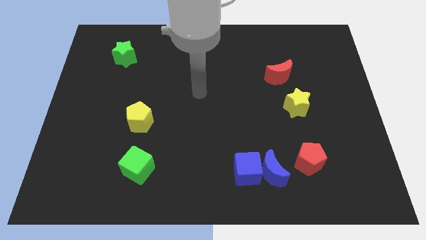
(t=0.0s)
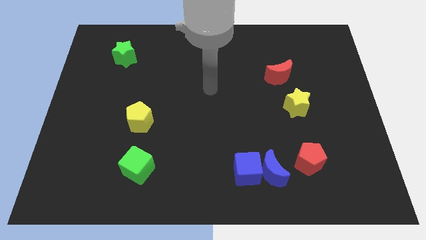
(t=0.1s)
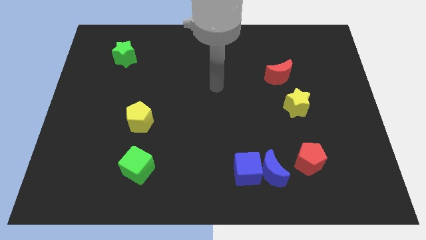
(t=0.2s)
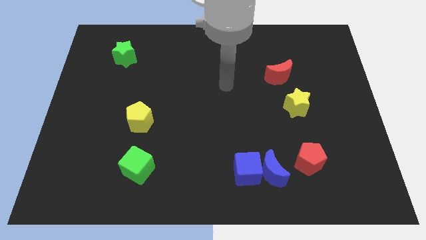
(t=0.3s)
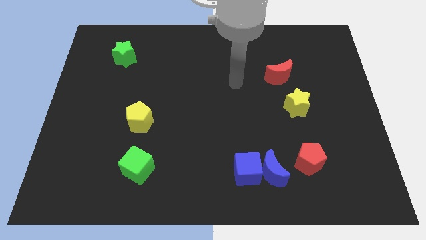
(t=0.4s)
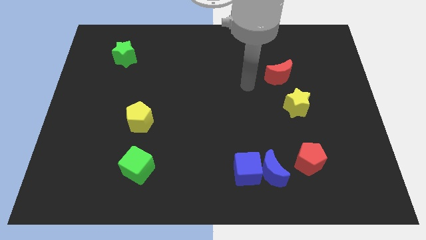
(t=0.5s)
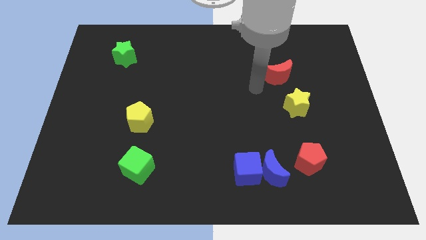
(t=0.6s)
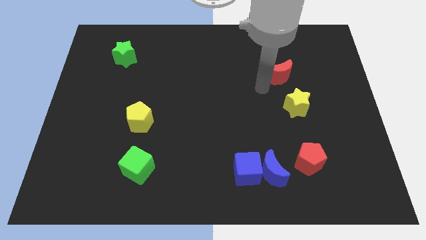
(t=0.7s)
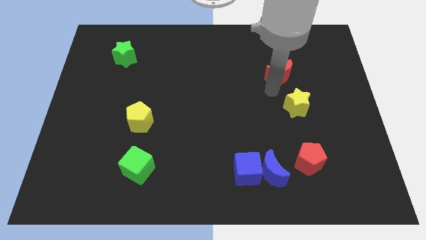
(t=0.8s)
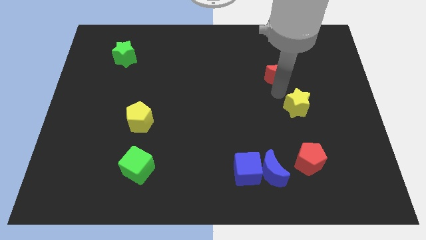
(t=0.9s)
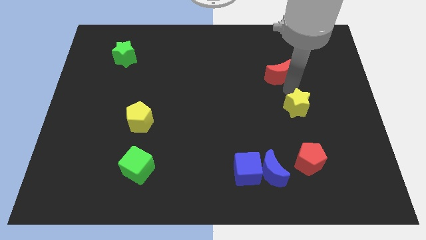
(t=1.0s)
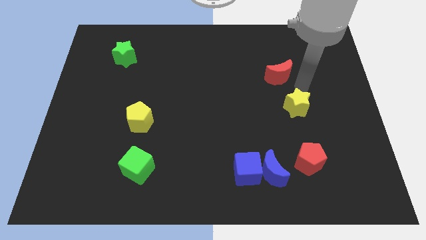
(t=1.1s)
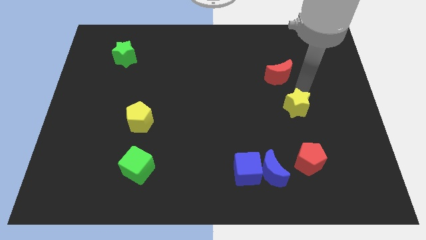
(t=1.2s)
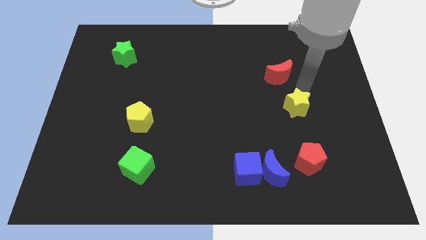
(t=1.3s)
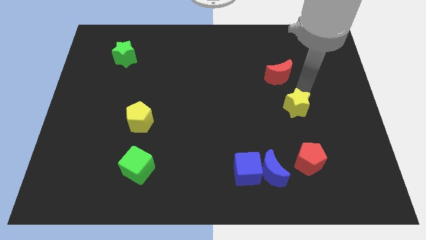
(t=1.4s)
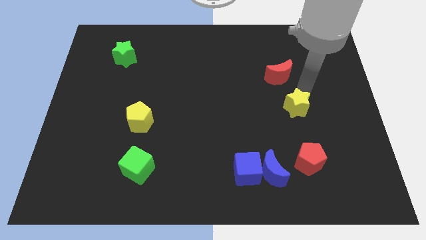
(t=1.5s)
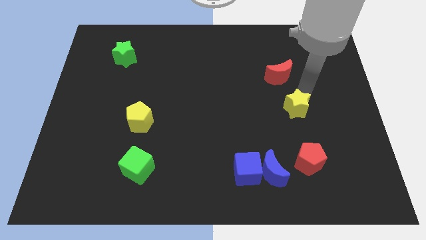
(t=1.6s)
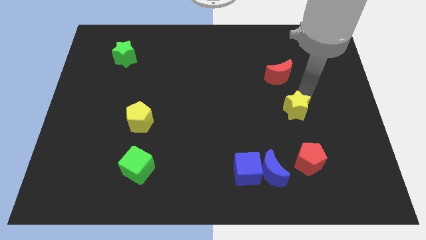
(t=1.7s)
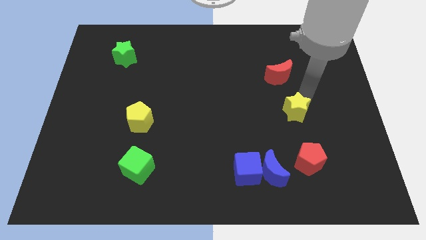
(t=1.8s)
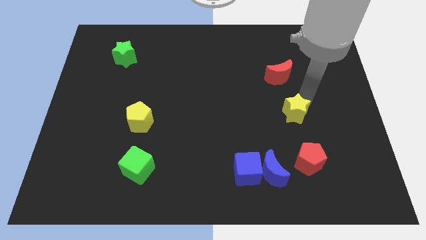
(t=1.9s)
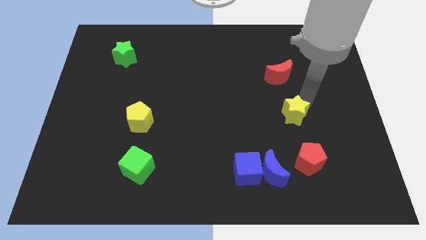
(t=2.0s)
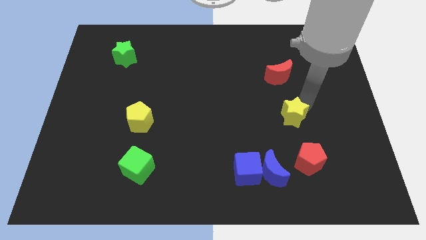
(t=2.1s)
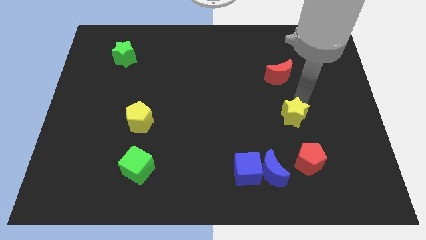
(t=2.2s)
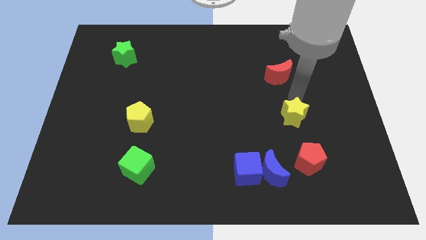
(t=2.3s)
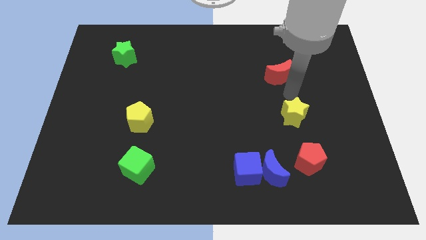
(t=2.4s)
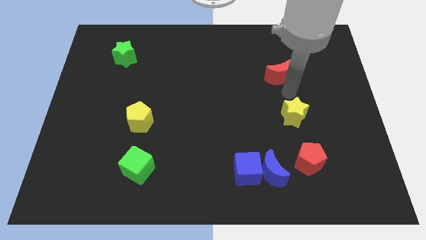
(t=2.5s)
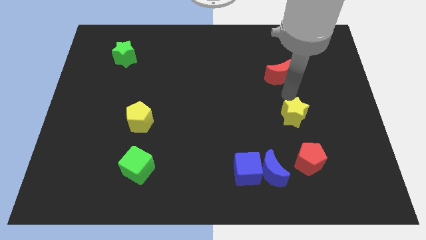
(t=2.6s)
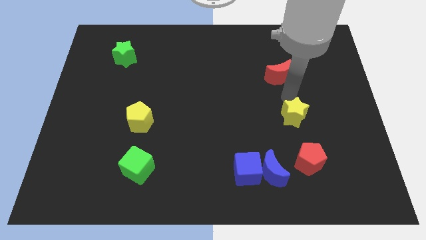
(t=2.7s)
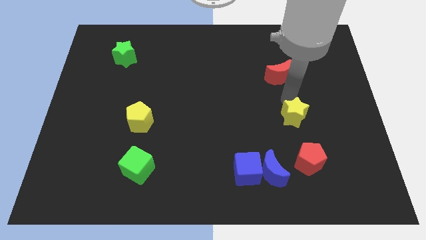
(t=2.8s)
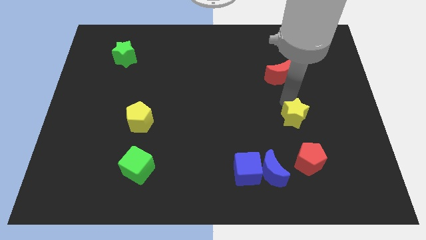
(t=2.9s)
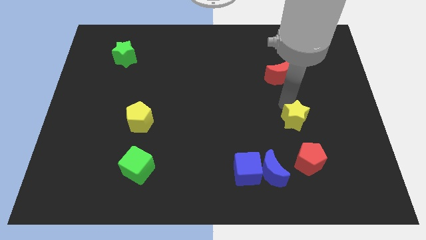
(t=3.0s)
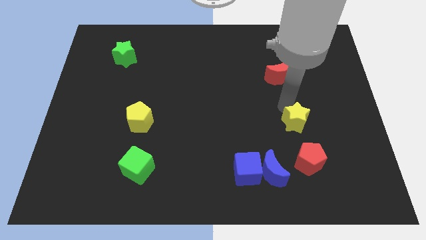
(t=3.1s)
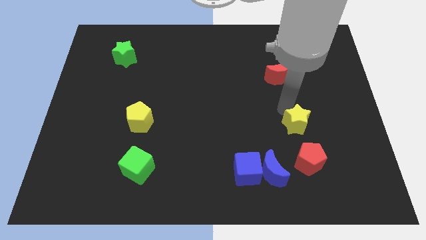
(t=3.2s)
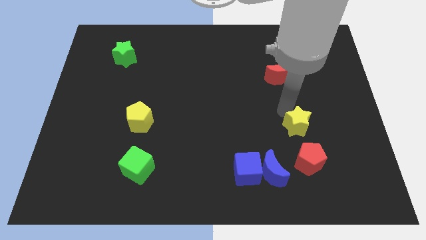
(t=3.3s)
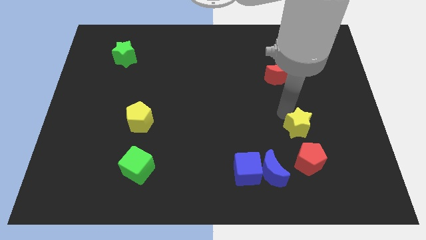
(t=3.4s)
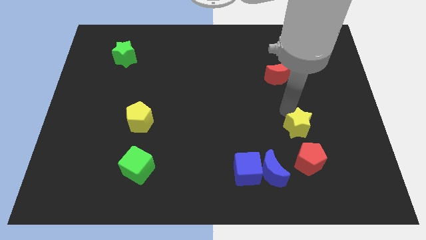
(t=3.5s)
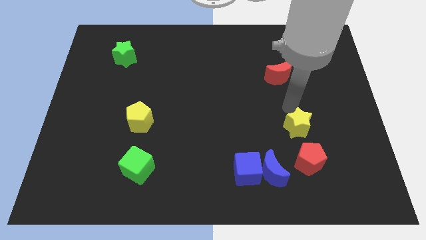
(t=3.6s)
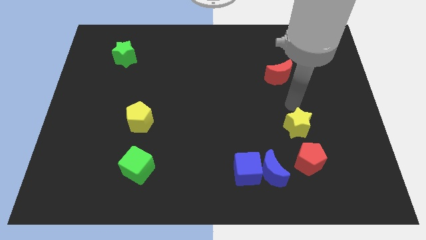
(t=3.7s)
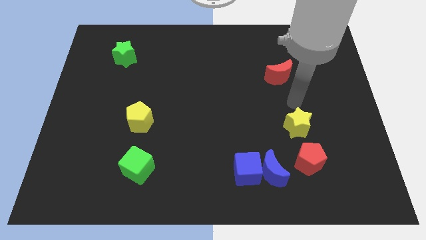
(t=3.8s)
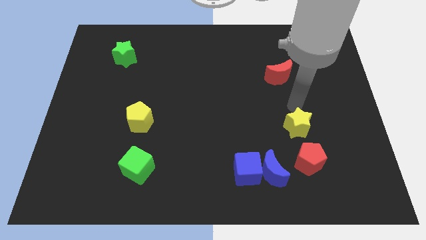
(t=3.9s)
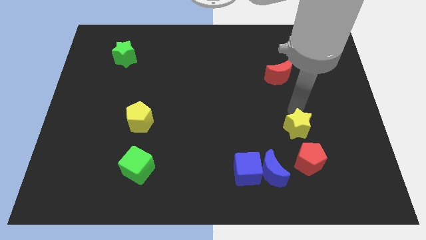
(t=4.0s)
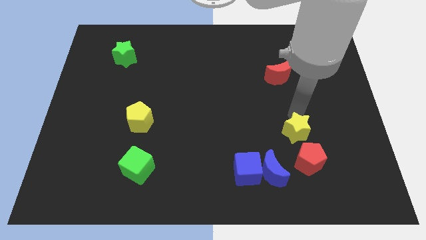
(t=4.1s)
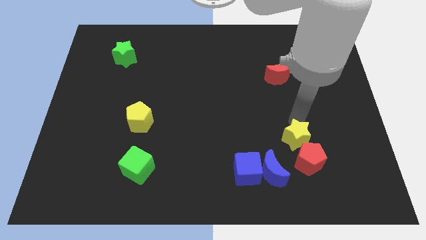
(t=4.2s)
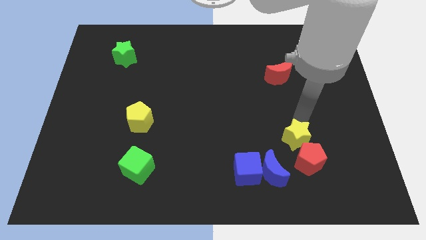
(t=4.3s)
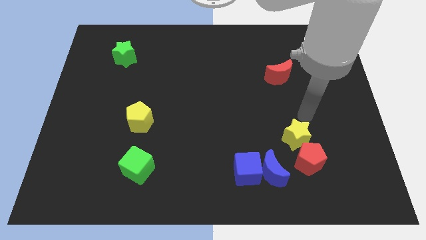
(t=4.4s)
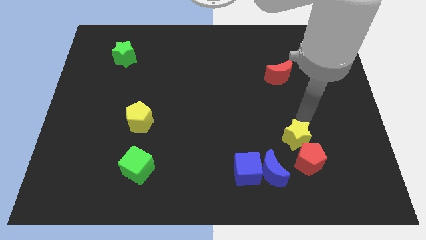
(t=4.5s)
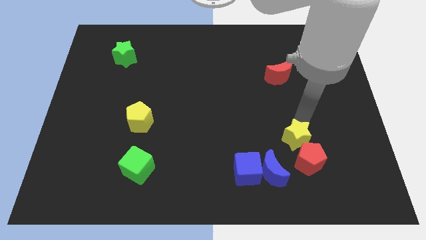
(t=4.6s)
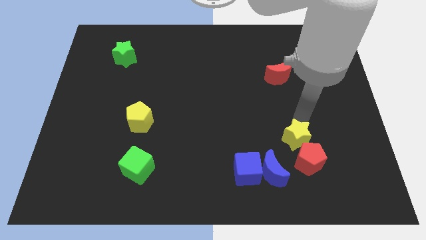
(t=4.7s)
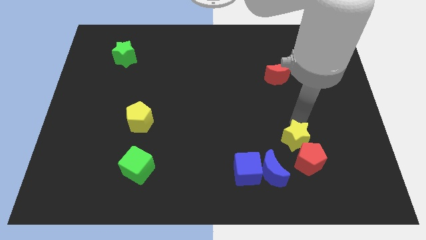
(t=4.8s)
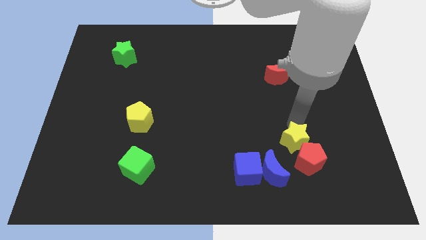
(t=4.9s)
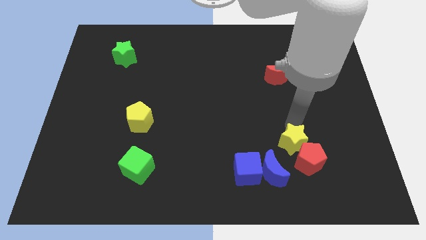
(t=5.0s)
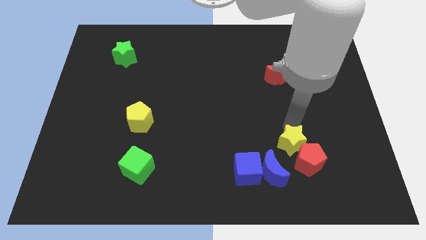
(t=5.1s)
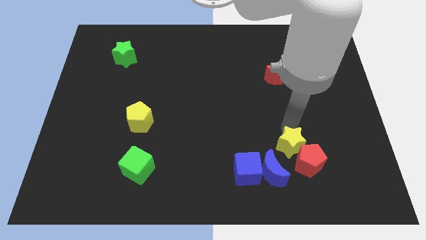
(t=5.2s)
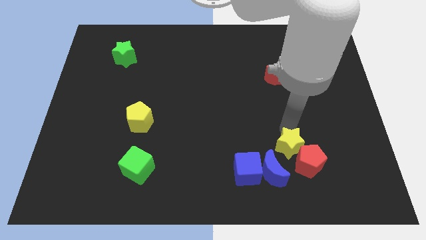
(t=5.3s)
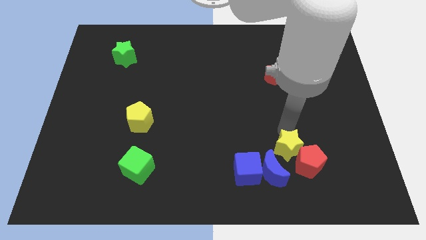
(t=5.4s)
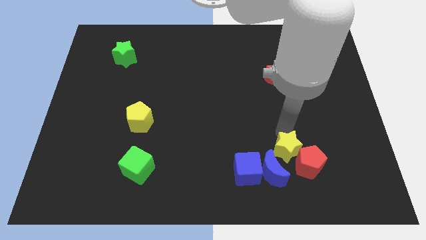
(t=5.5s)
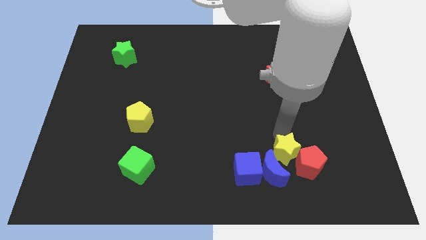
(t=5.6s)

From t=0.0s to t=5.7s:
slide the yellow star to the blue moon

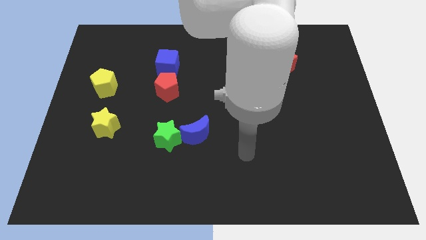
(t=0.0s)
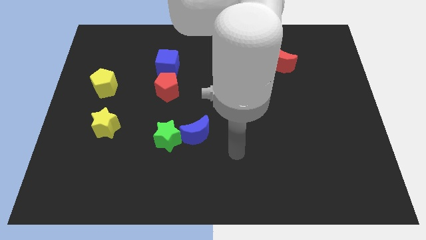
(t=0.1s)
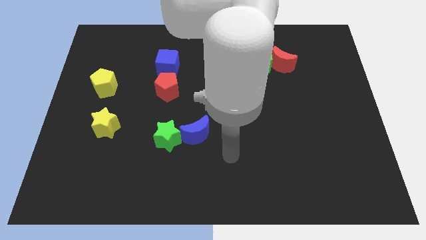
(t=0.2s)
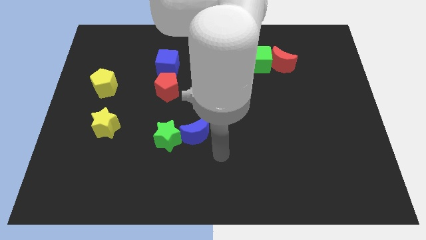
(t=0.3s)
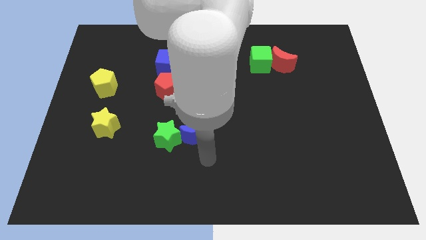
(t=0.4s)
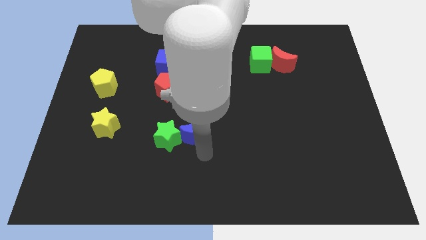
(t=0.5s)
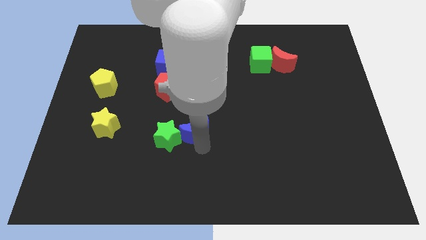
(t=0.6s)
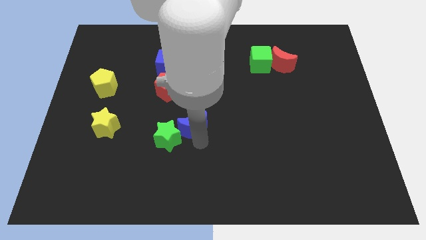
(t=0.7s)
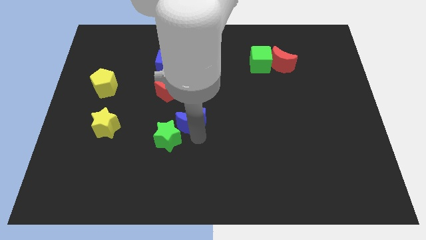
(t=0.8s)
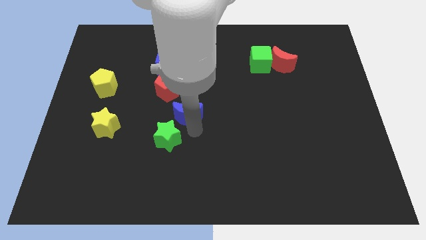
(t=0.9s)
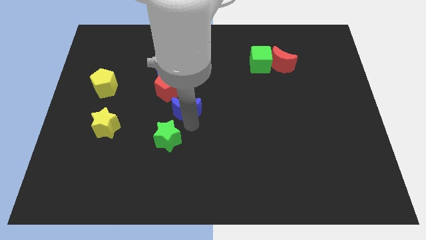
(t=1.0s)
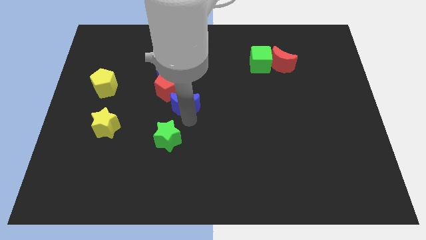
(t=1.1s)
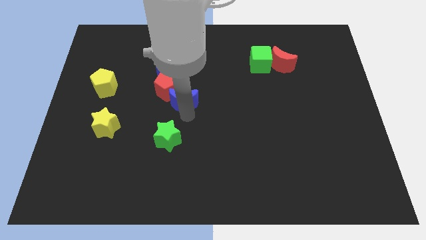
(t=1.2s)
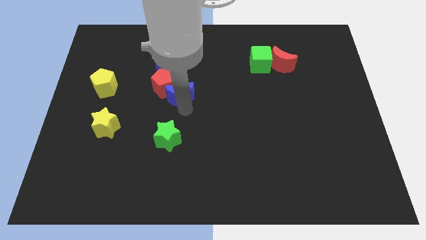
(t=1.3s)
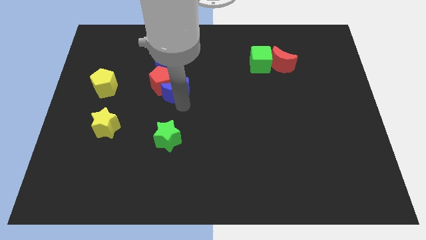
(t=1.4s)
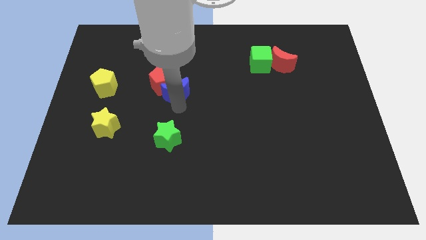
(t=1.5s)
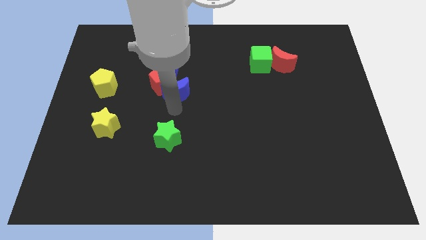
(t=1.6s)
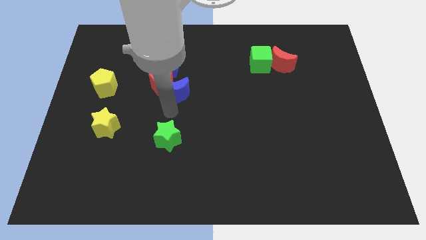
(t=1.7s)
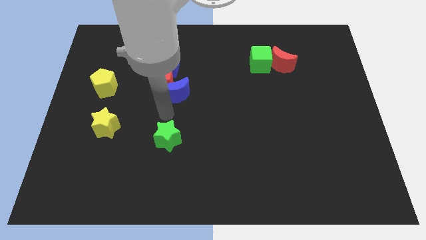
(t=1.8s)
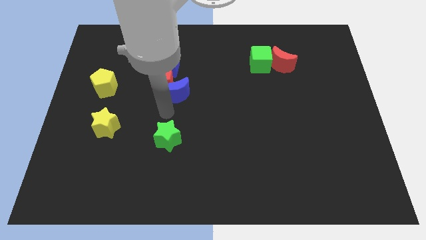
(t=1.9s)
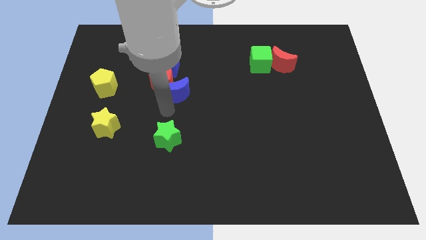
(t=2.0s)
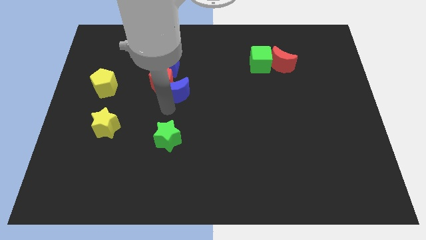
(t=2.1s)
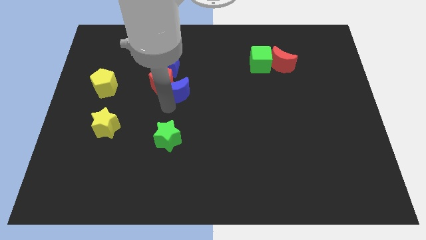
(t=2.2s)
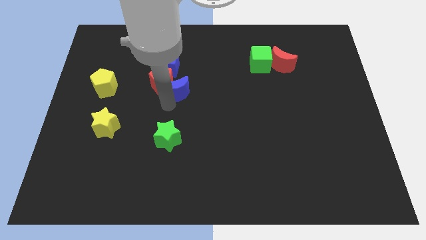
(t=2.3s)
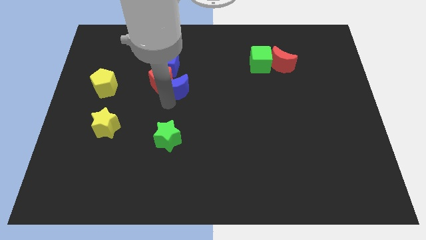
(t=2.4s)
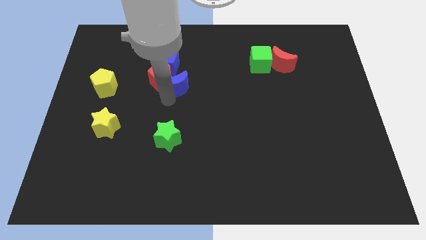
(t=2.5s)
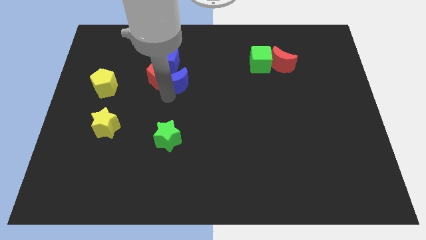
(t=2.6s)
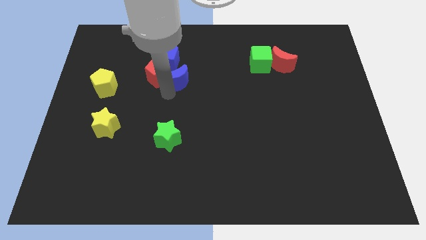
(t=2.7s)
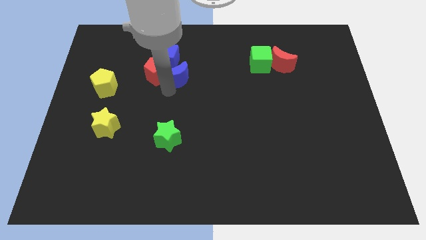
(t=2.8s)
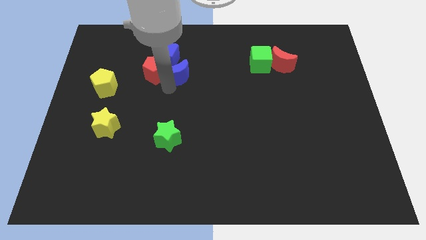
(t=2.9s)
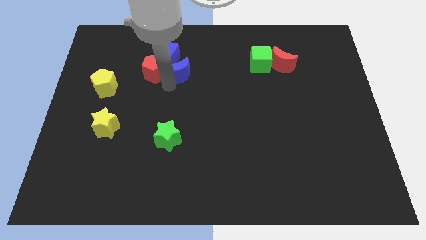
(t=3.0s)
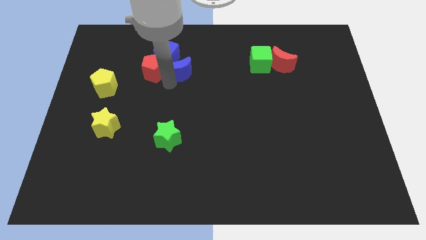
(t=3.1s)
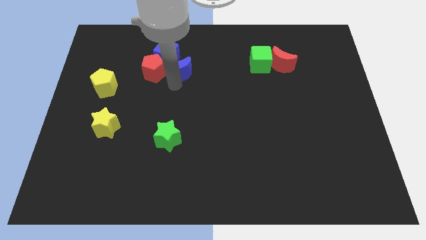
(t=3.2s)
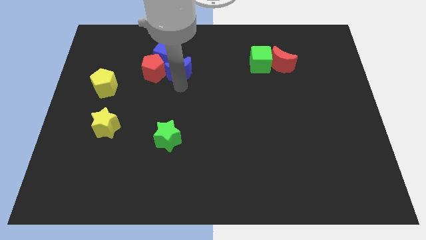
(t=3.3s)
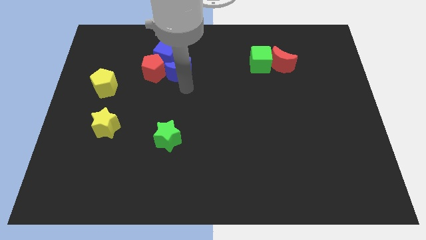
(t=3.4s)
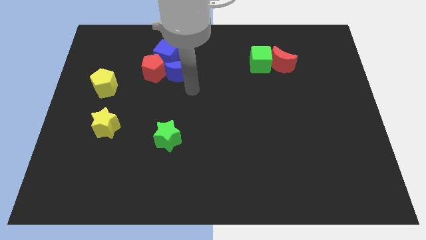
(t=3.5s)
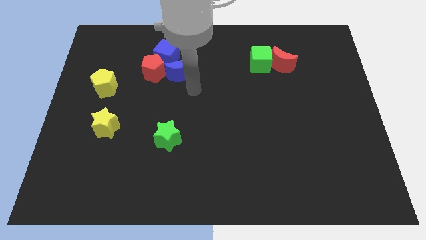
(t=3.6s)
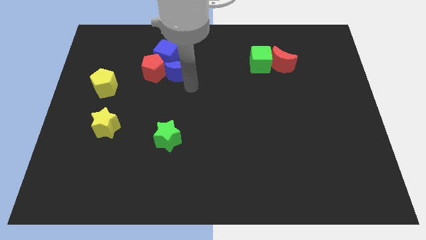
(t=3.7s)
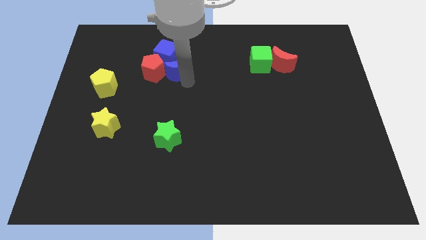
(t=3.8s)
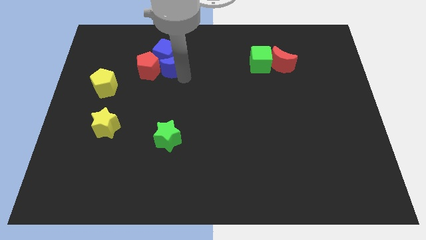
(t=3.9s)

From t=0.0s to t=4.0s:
push the blue moon close to the blue cube
